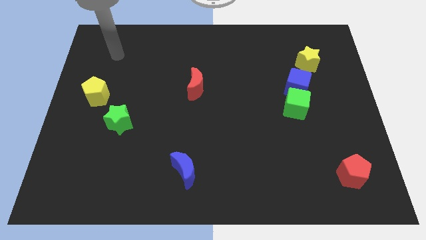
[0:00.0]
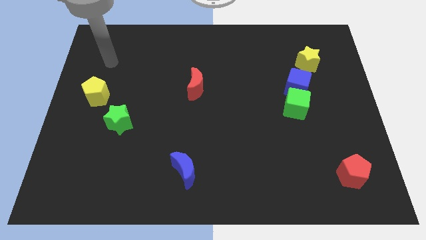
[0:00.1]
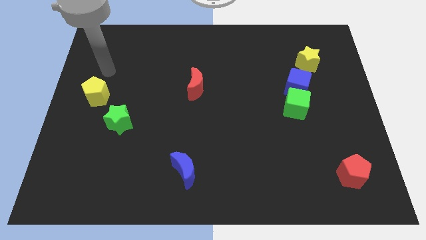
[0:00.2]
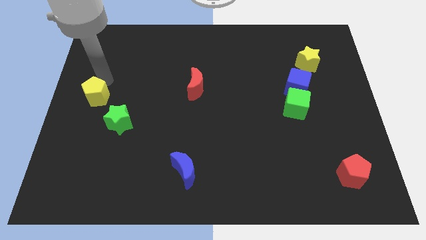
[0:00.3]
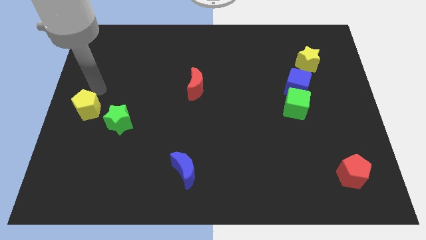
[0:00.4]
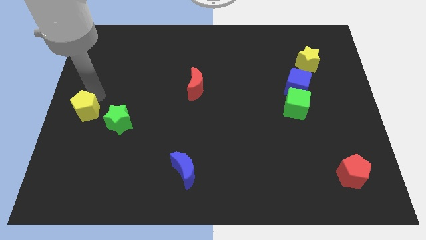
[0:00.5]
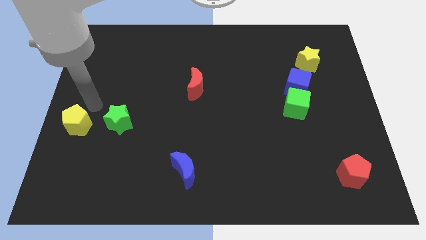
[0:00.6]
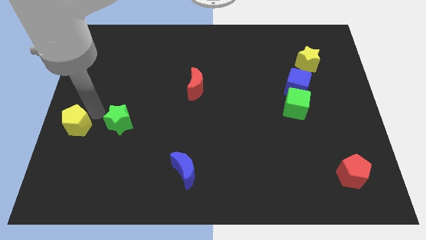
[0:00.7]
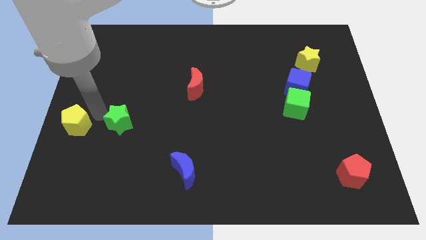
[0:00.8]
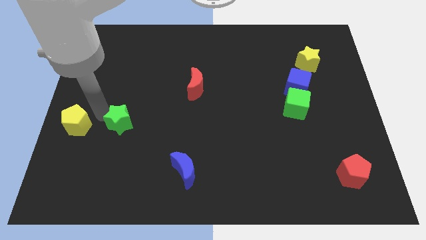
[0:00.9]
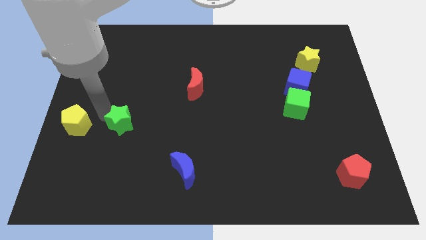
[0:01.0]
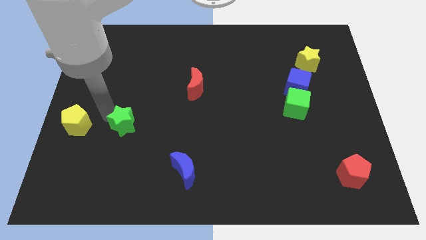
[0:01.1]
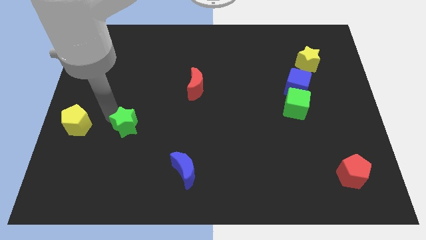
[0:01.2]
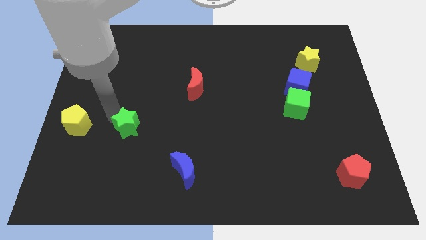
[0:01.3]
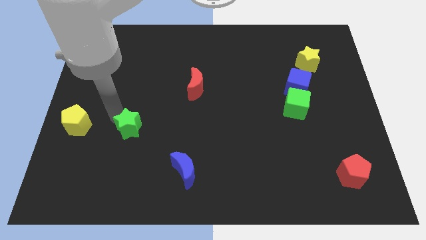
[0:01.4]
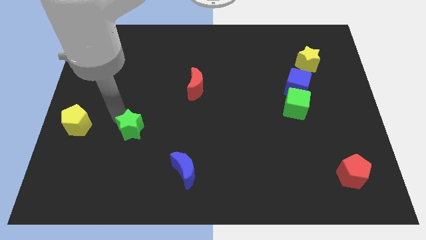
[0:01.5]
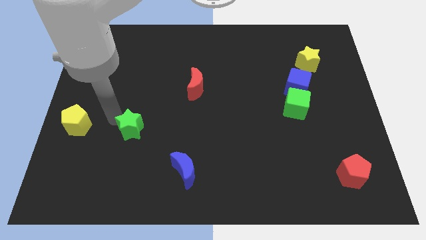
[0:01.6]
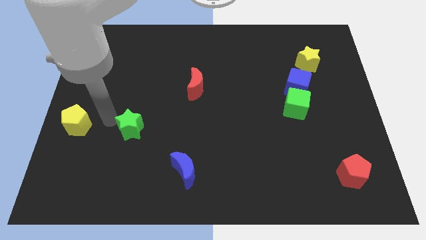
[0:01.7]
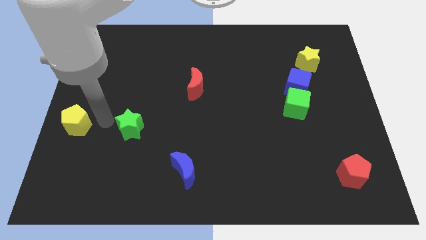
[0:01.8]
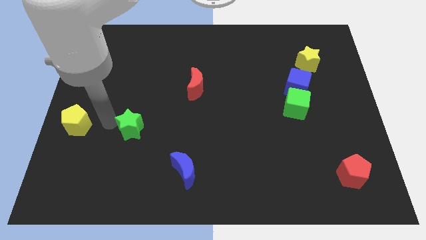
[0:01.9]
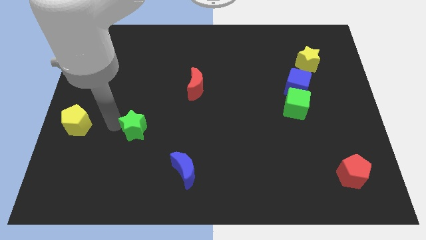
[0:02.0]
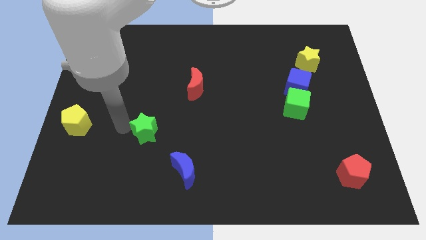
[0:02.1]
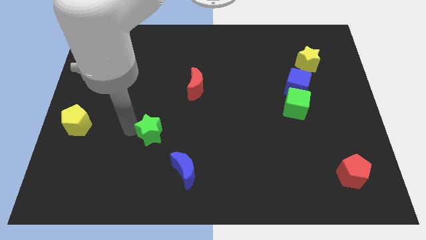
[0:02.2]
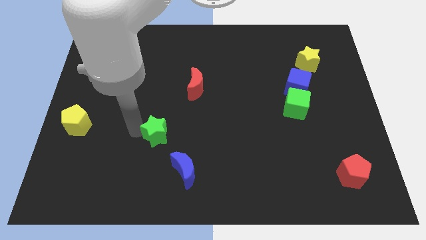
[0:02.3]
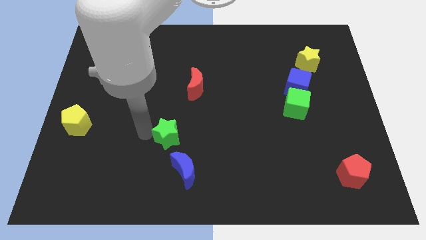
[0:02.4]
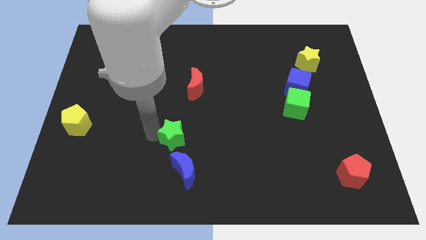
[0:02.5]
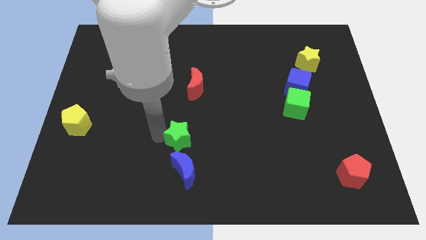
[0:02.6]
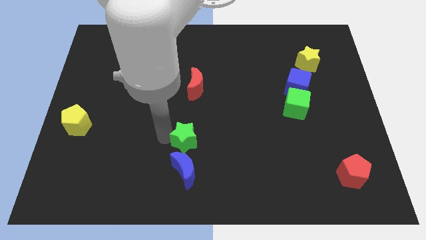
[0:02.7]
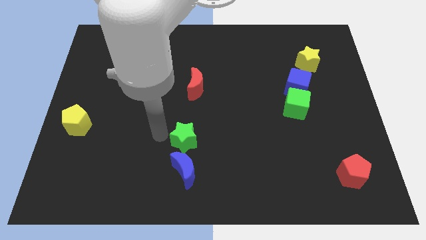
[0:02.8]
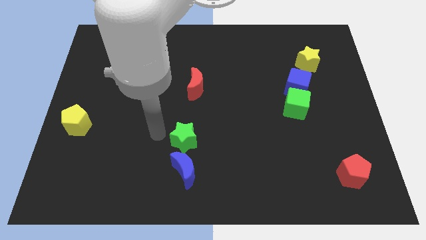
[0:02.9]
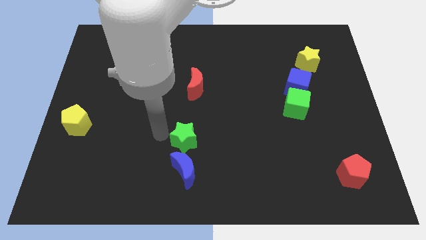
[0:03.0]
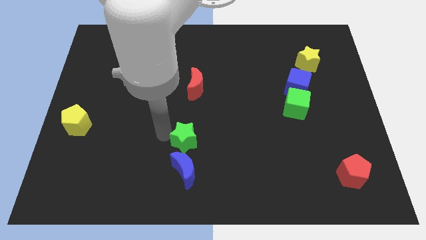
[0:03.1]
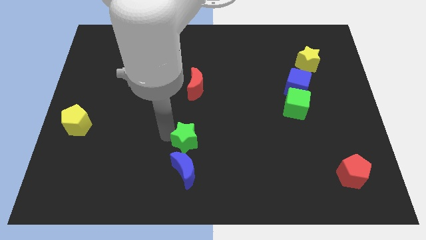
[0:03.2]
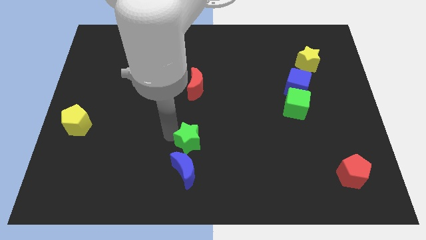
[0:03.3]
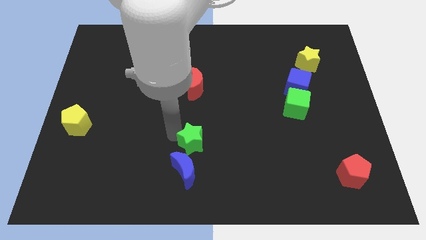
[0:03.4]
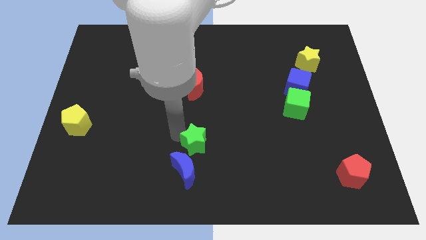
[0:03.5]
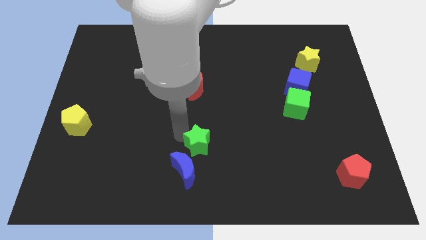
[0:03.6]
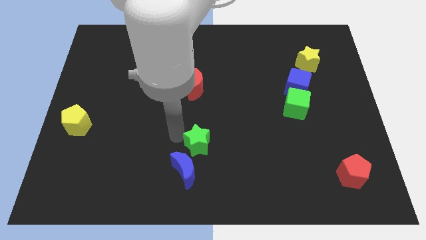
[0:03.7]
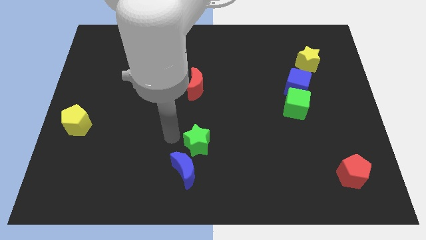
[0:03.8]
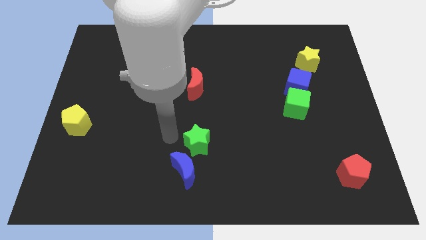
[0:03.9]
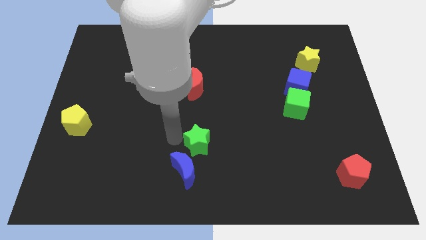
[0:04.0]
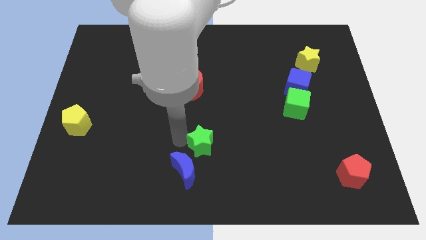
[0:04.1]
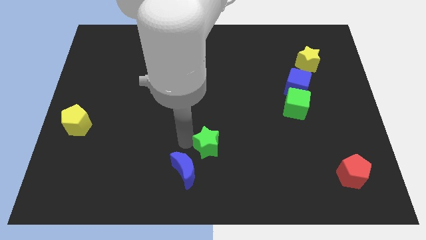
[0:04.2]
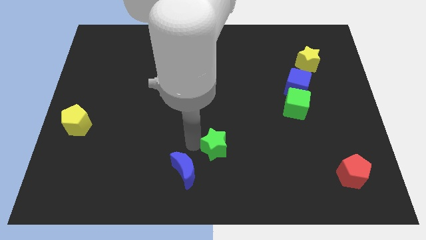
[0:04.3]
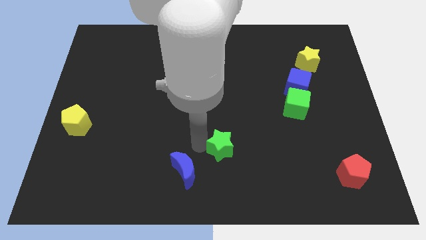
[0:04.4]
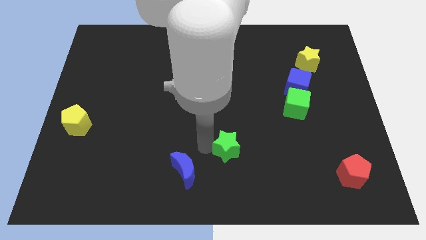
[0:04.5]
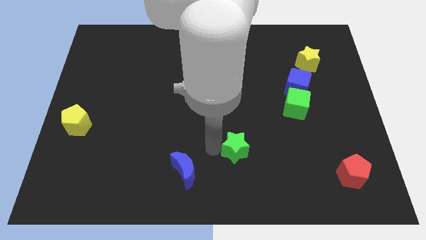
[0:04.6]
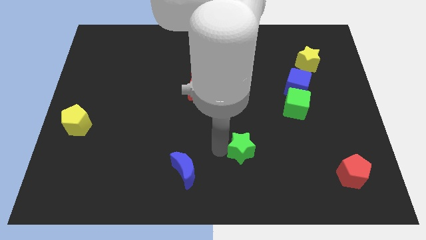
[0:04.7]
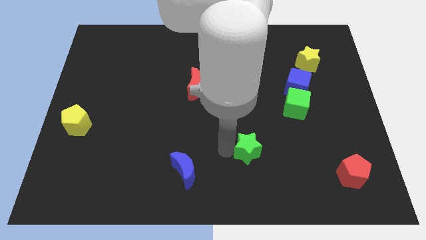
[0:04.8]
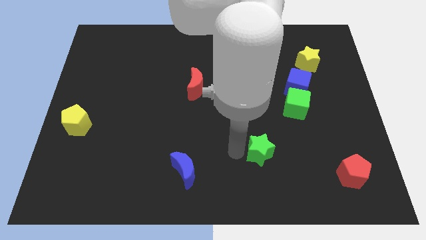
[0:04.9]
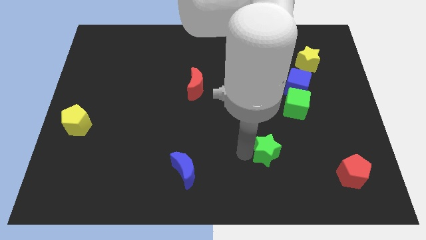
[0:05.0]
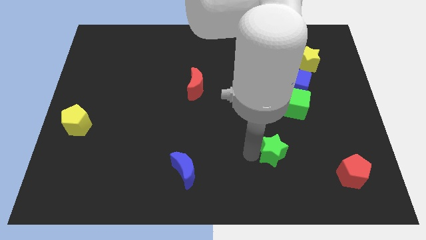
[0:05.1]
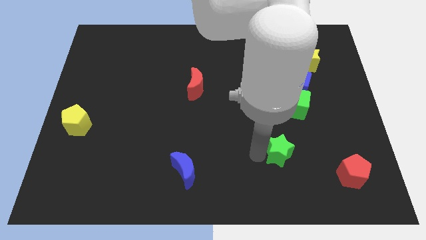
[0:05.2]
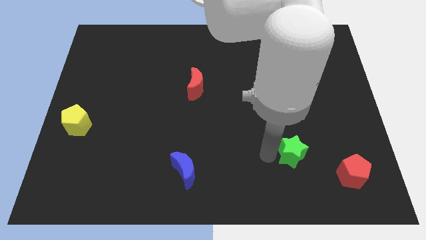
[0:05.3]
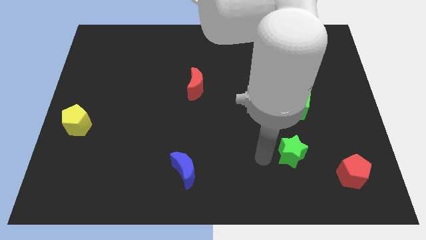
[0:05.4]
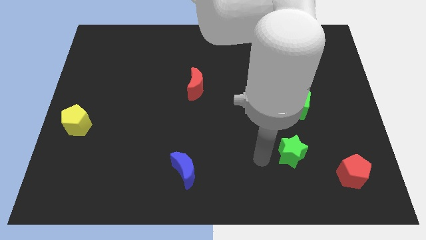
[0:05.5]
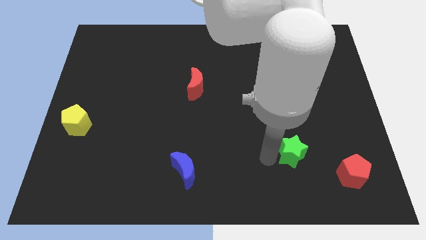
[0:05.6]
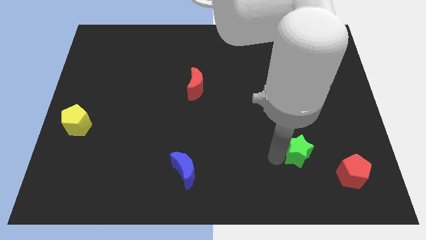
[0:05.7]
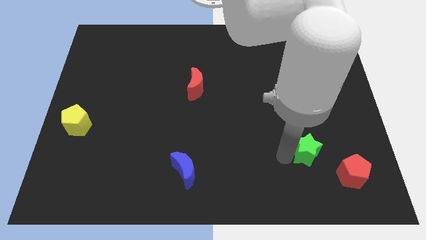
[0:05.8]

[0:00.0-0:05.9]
put the green star diagonally up and to the left of the red pentagon

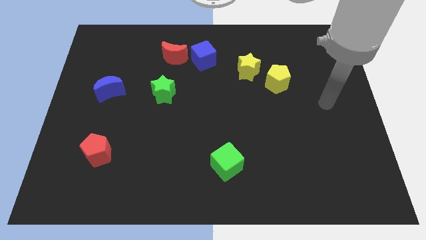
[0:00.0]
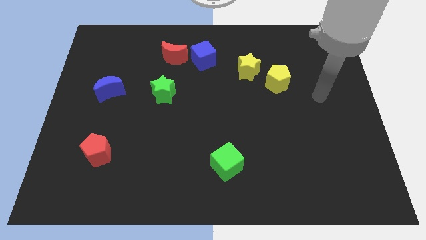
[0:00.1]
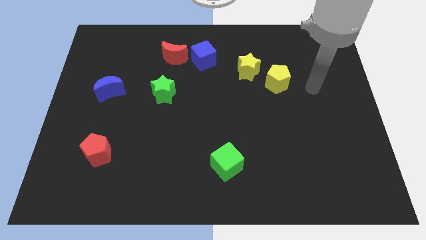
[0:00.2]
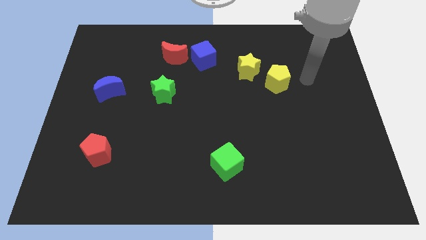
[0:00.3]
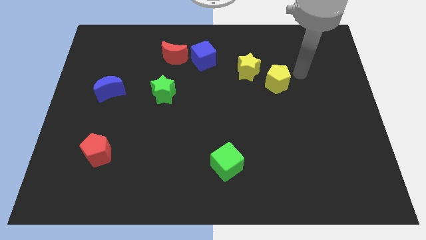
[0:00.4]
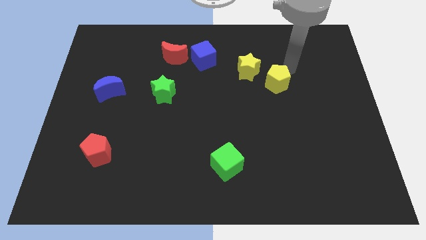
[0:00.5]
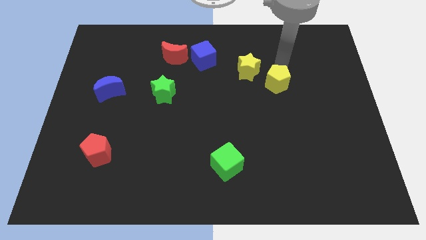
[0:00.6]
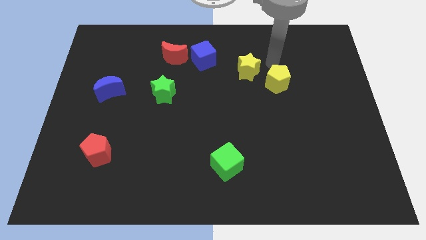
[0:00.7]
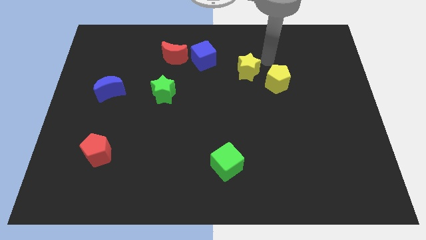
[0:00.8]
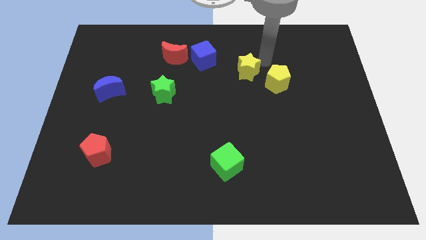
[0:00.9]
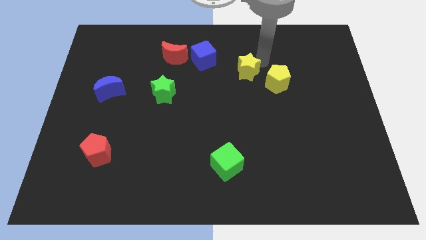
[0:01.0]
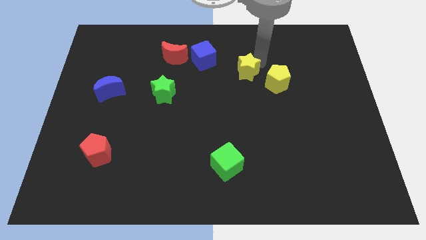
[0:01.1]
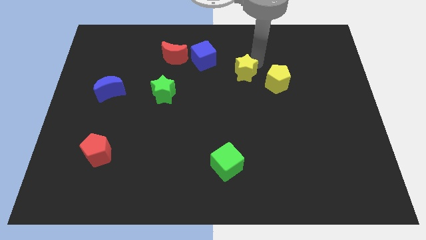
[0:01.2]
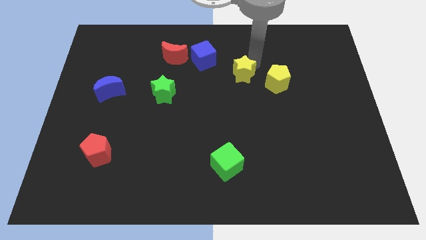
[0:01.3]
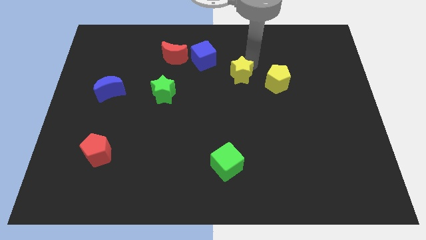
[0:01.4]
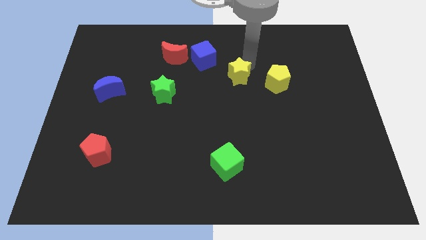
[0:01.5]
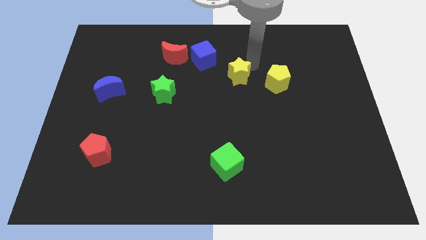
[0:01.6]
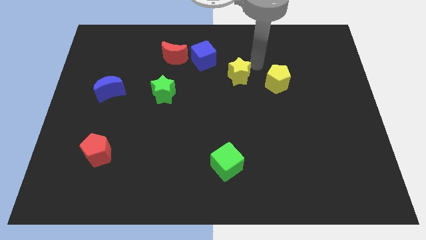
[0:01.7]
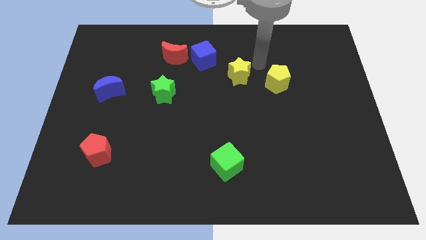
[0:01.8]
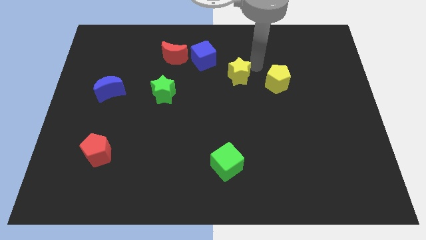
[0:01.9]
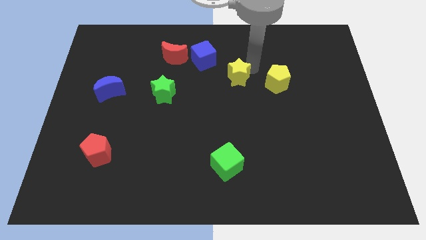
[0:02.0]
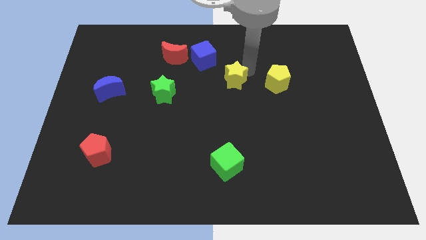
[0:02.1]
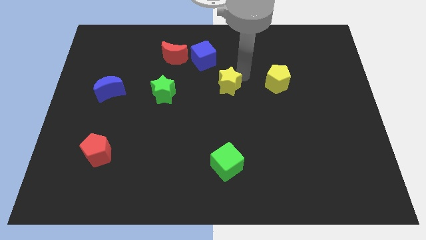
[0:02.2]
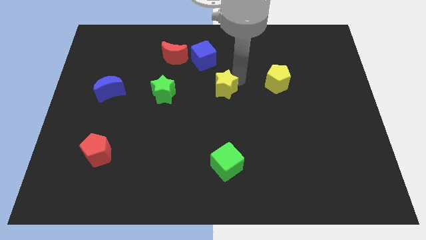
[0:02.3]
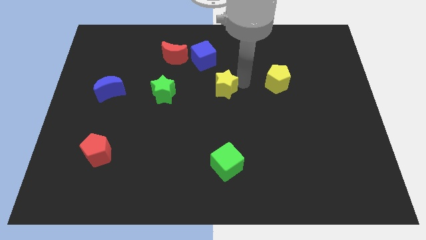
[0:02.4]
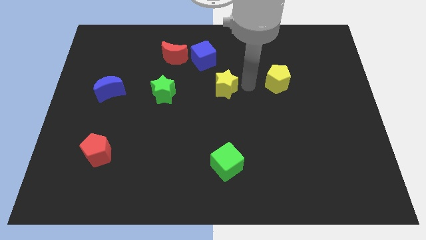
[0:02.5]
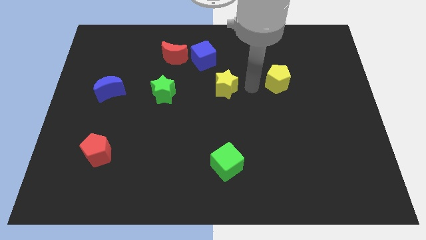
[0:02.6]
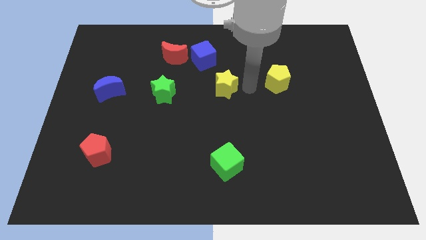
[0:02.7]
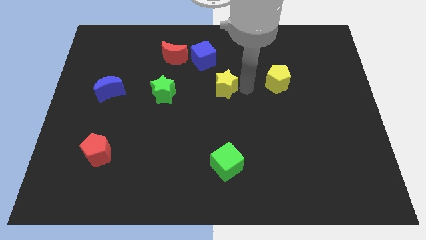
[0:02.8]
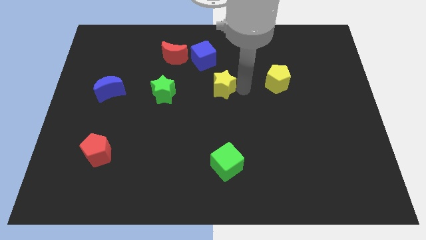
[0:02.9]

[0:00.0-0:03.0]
put the yellow star to the bottom side of the blue cube
